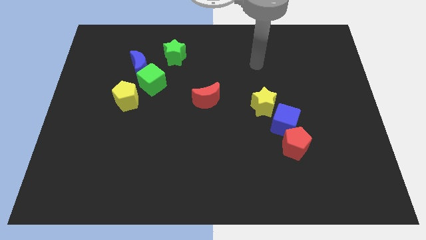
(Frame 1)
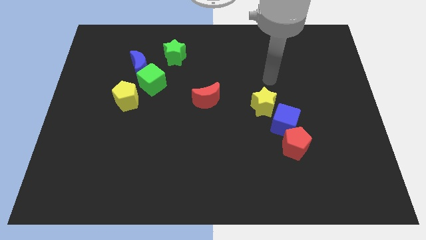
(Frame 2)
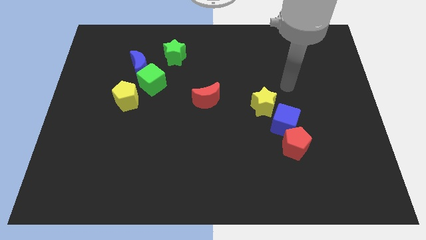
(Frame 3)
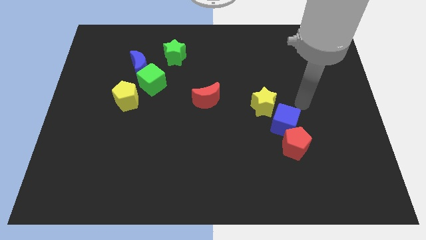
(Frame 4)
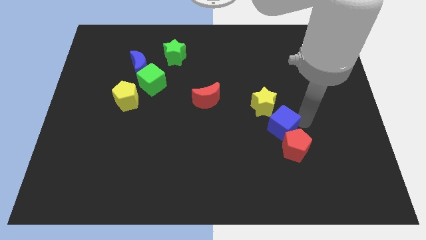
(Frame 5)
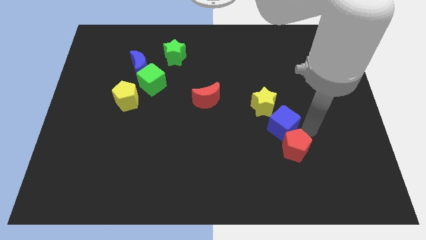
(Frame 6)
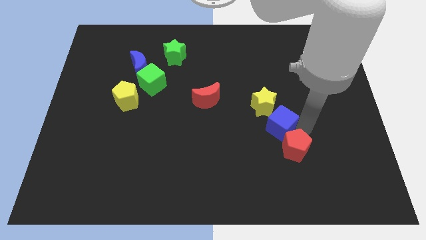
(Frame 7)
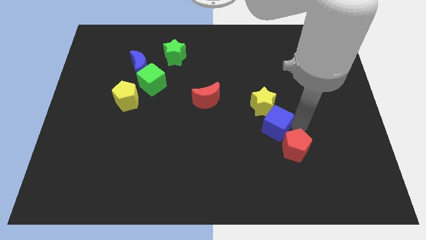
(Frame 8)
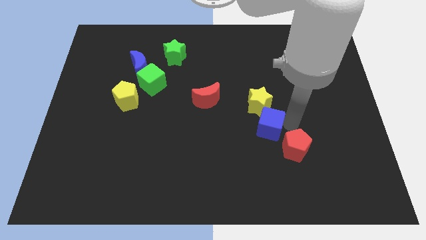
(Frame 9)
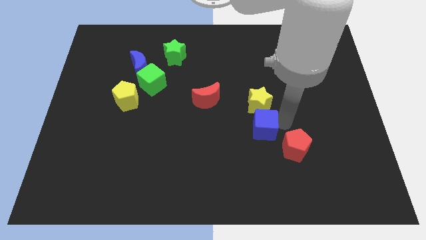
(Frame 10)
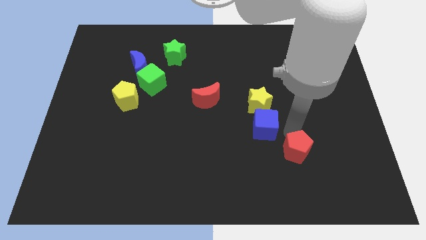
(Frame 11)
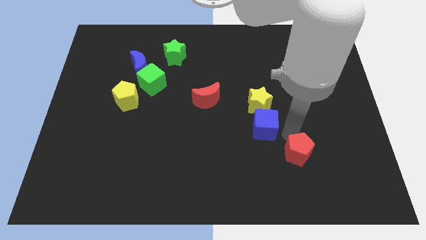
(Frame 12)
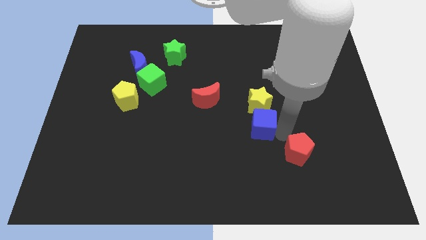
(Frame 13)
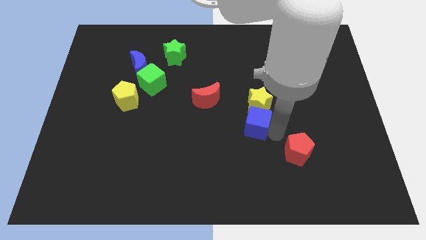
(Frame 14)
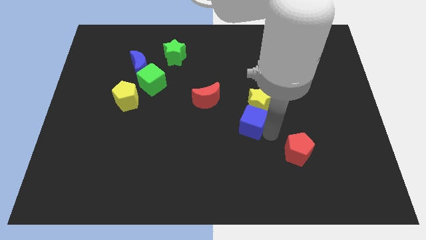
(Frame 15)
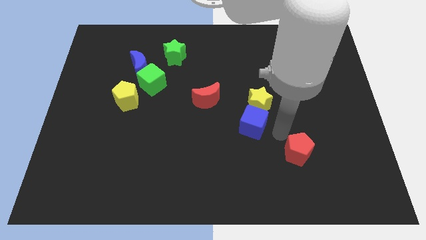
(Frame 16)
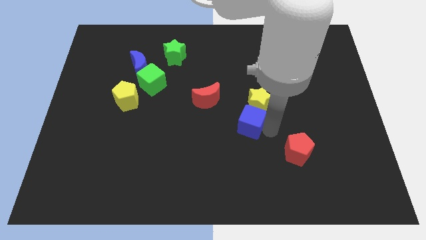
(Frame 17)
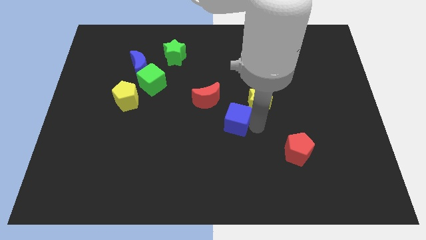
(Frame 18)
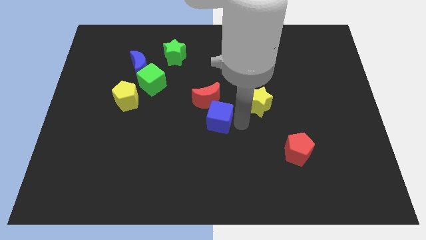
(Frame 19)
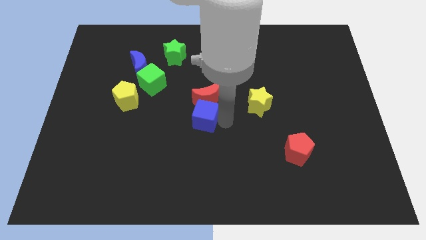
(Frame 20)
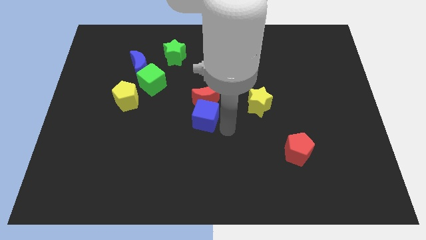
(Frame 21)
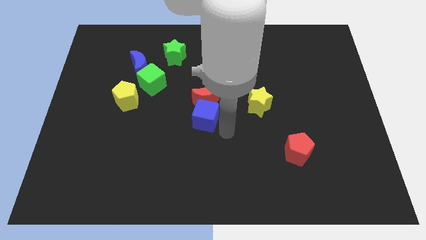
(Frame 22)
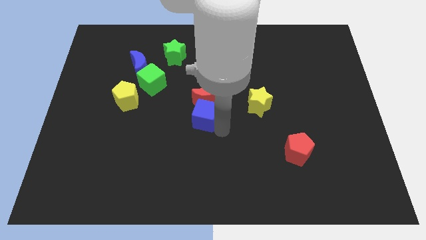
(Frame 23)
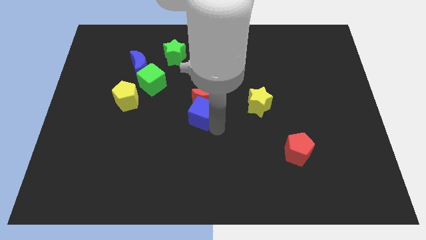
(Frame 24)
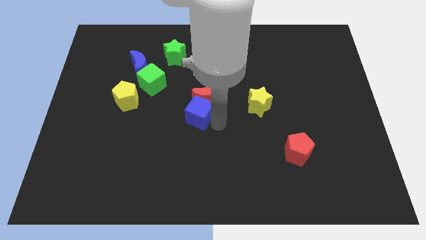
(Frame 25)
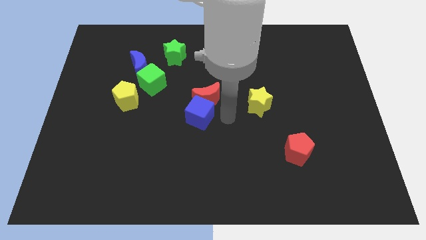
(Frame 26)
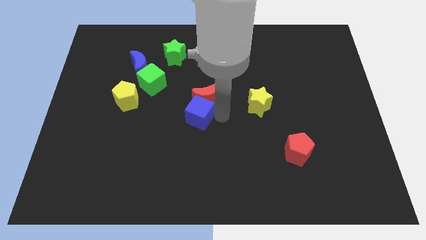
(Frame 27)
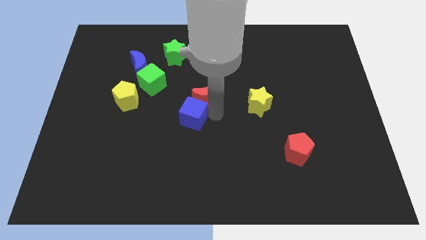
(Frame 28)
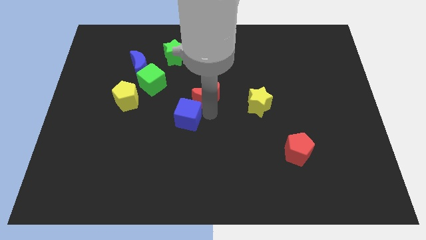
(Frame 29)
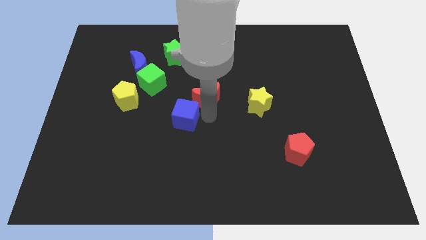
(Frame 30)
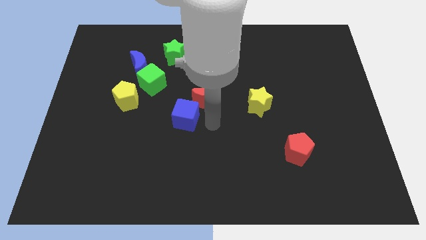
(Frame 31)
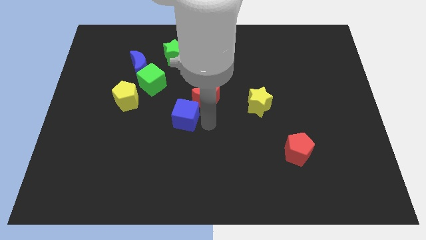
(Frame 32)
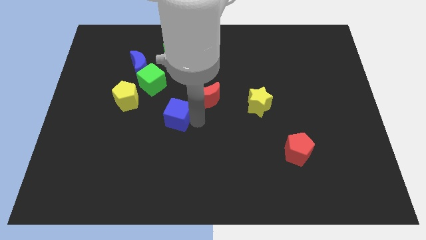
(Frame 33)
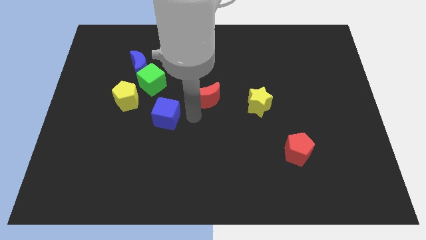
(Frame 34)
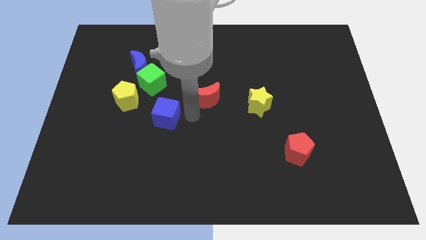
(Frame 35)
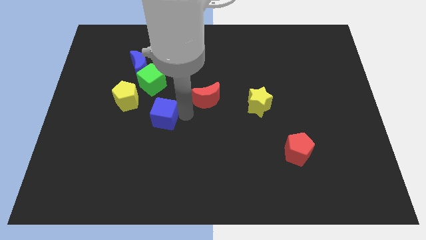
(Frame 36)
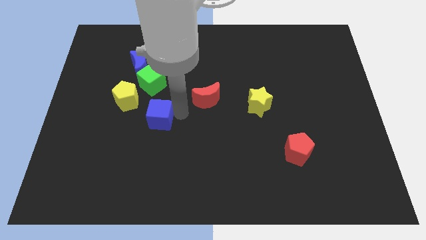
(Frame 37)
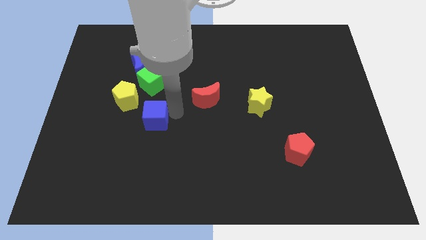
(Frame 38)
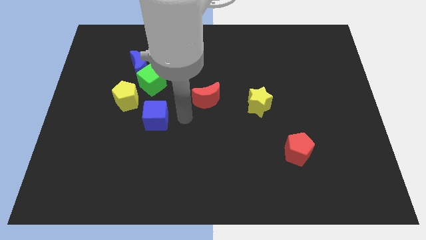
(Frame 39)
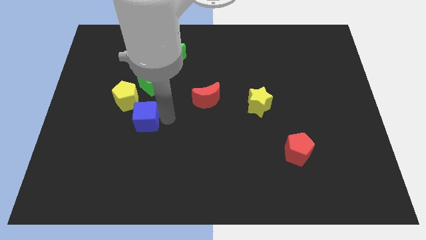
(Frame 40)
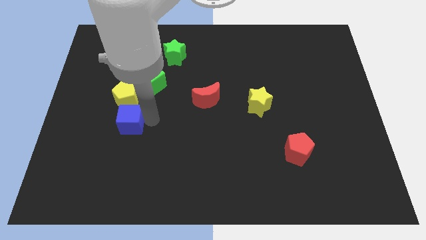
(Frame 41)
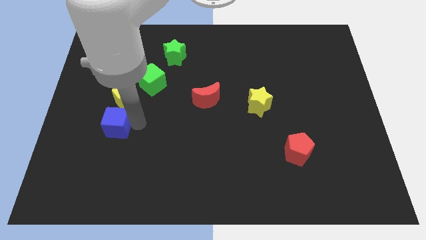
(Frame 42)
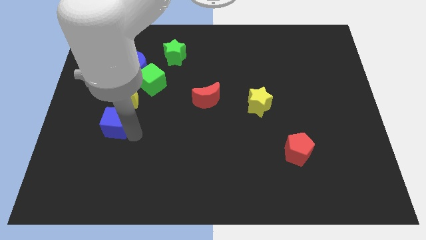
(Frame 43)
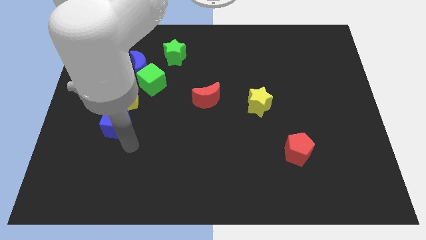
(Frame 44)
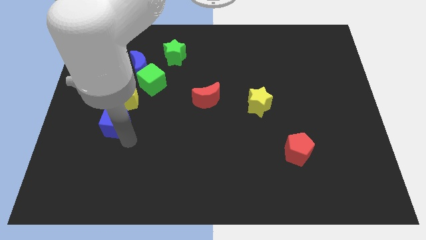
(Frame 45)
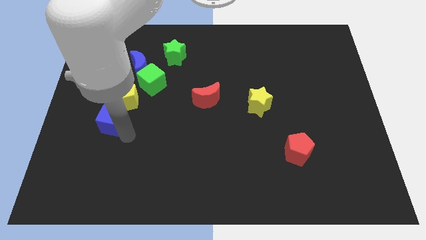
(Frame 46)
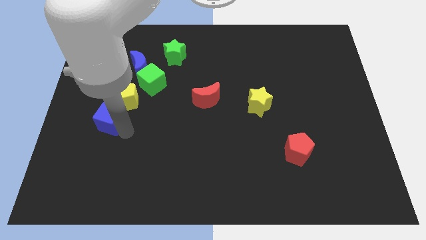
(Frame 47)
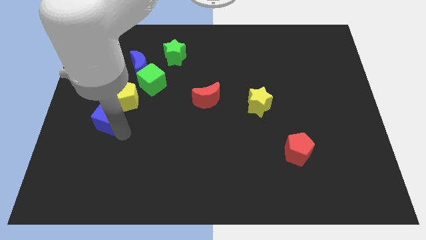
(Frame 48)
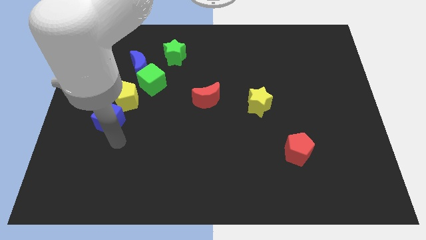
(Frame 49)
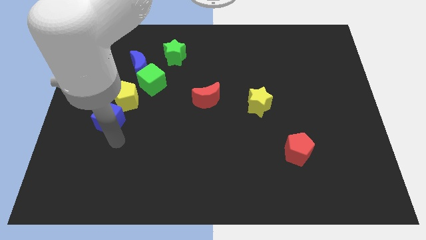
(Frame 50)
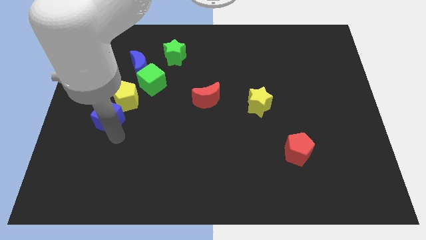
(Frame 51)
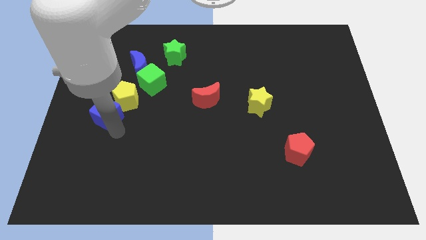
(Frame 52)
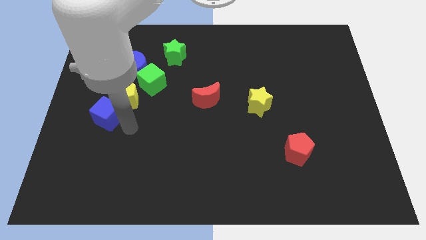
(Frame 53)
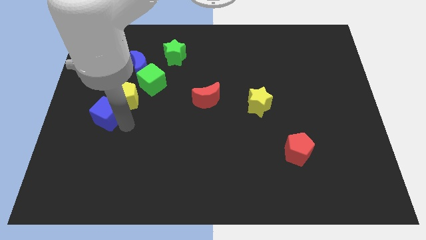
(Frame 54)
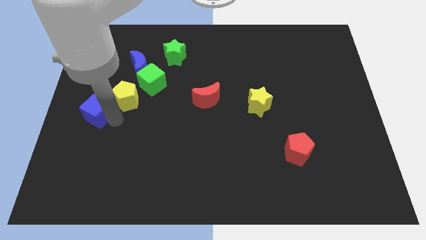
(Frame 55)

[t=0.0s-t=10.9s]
push the blue cube to the left side

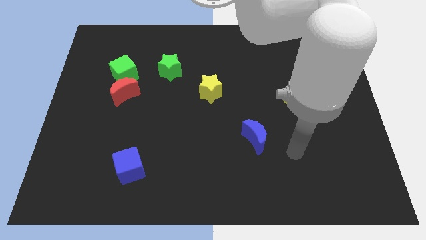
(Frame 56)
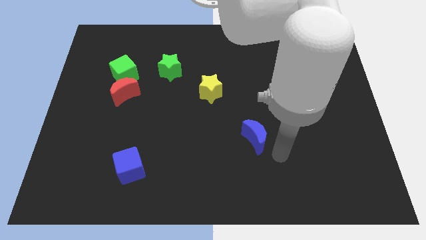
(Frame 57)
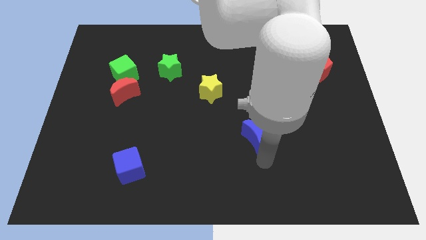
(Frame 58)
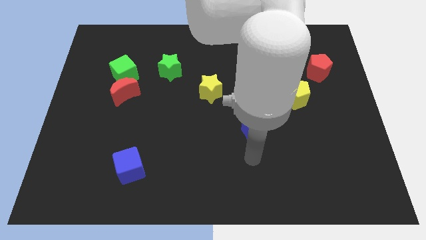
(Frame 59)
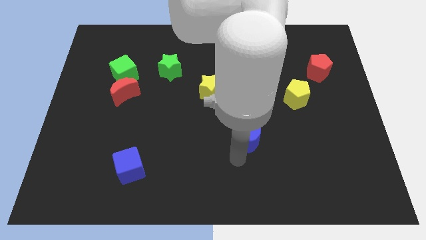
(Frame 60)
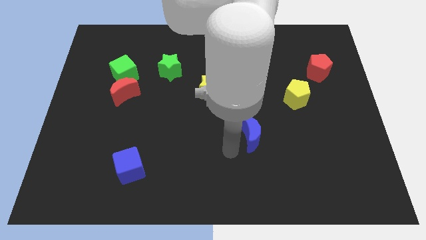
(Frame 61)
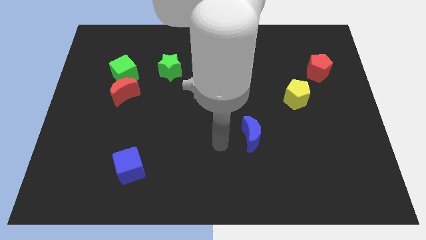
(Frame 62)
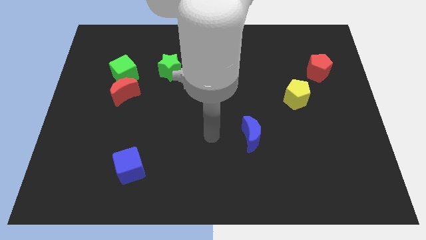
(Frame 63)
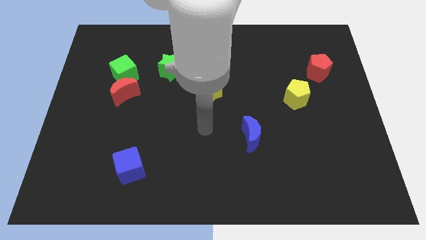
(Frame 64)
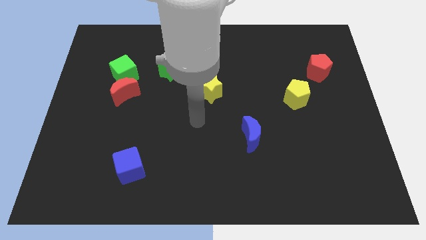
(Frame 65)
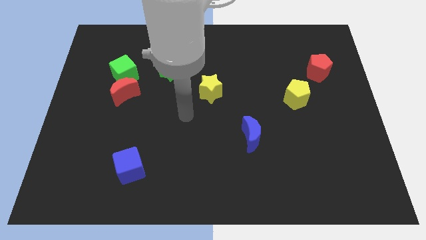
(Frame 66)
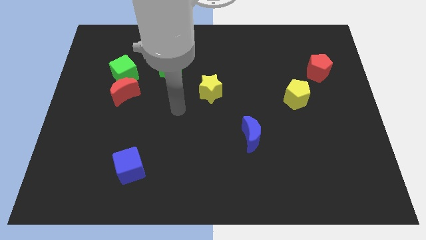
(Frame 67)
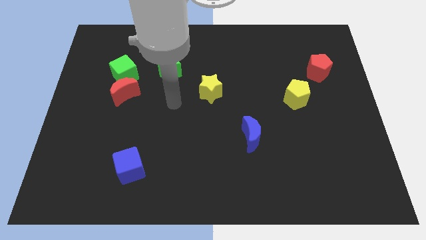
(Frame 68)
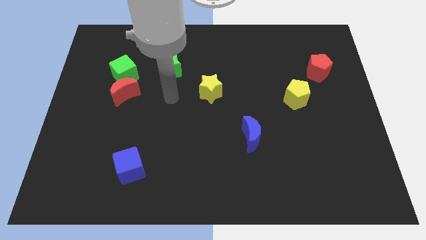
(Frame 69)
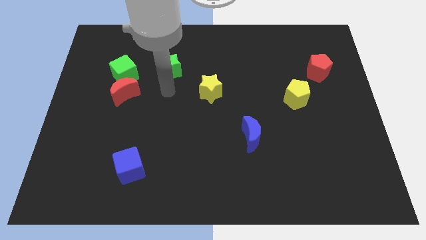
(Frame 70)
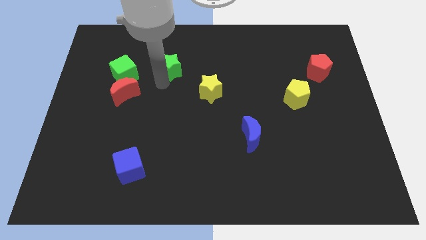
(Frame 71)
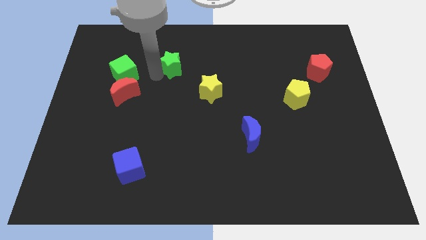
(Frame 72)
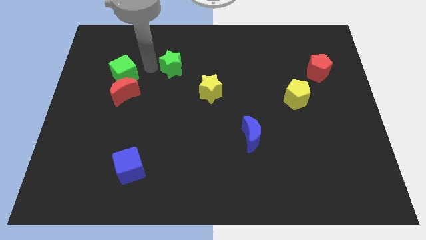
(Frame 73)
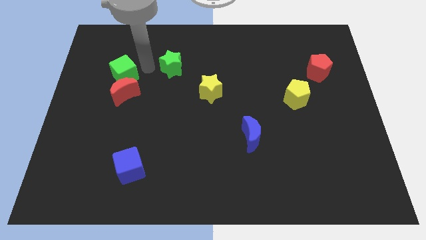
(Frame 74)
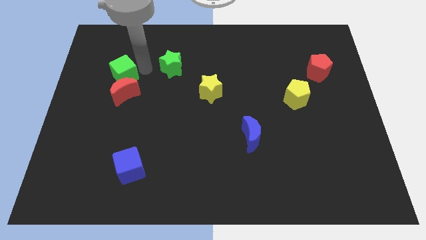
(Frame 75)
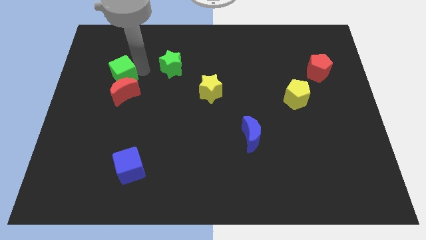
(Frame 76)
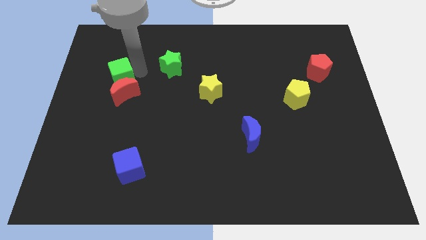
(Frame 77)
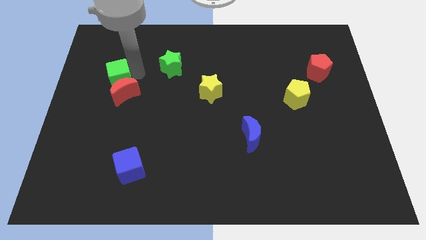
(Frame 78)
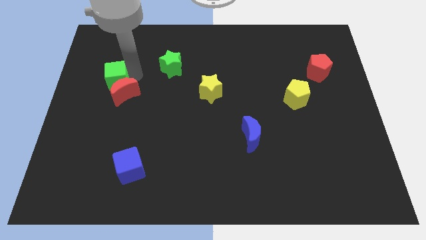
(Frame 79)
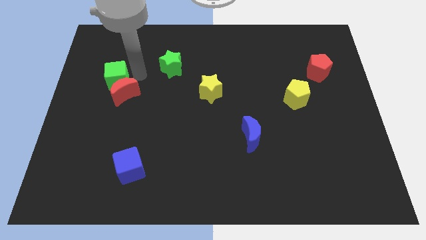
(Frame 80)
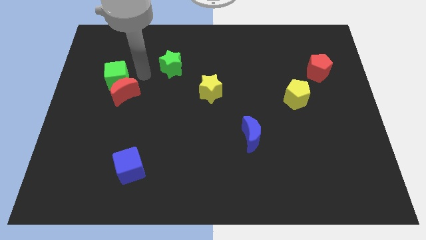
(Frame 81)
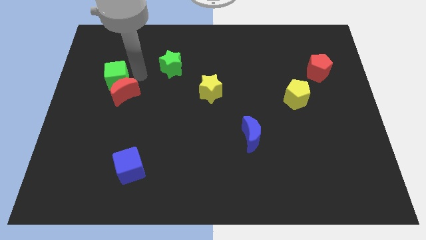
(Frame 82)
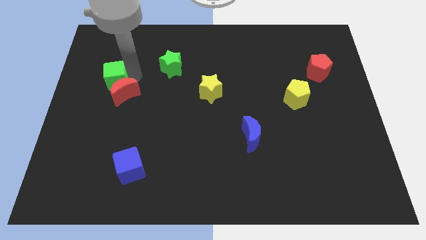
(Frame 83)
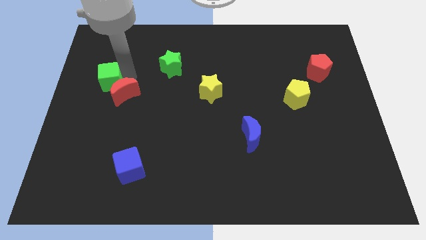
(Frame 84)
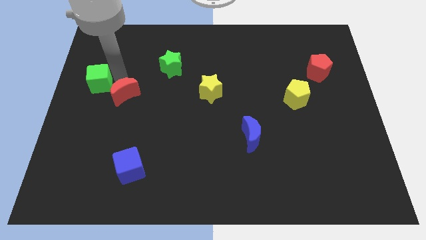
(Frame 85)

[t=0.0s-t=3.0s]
move the green cube to the left side
